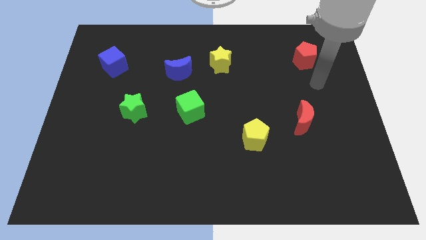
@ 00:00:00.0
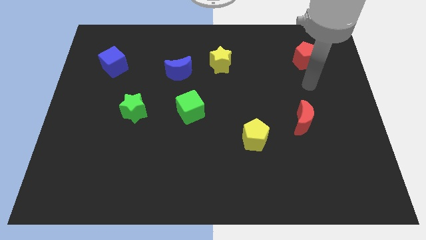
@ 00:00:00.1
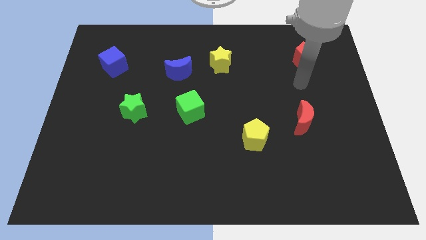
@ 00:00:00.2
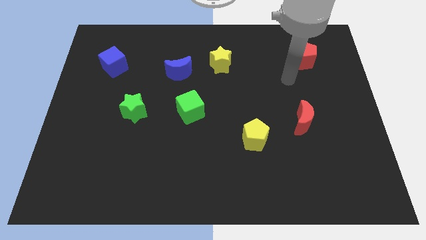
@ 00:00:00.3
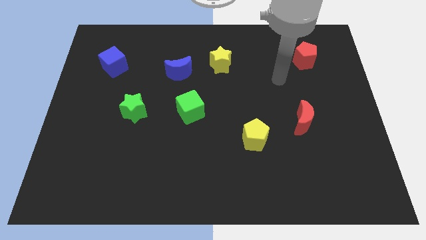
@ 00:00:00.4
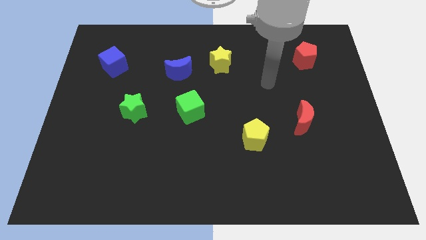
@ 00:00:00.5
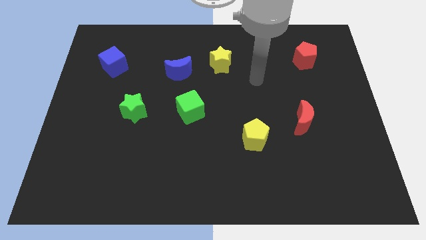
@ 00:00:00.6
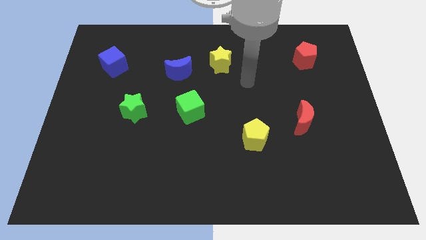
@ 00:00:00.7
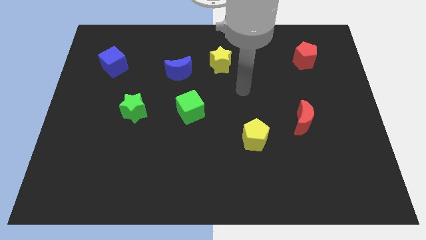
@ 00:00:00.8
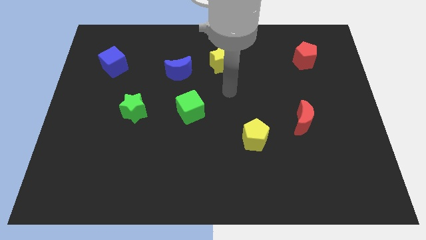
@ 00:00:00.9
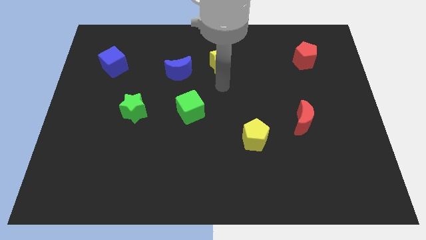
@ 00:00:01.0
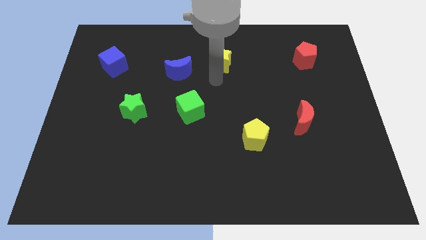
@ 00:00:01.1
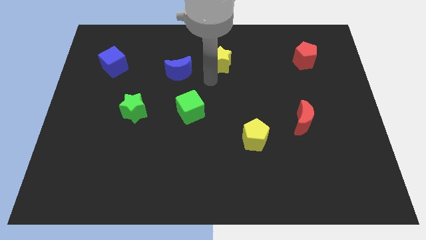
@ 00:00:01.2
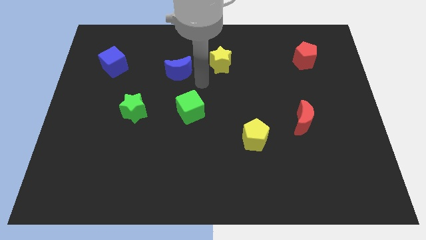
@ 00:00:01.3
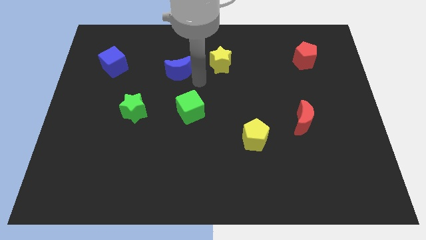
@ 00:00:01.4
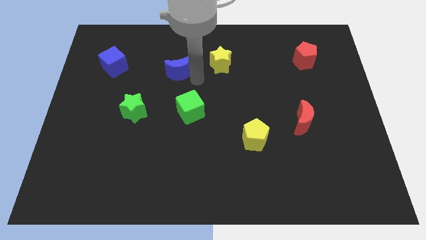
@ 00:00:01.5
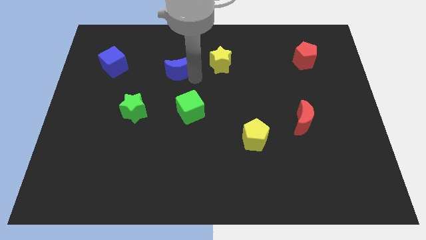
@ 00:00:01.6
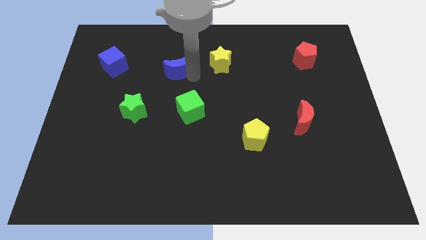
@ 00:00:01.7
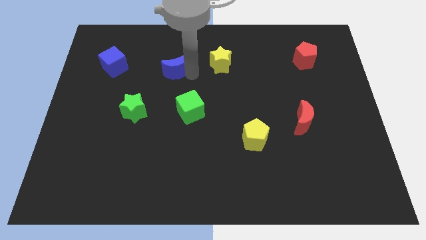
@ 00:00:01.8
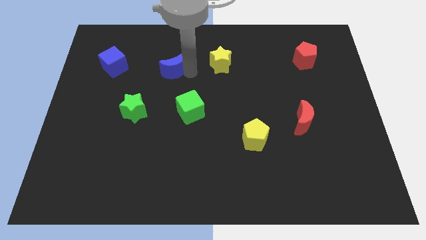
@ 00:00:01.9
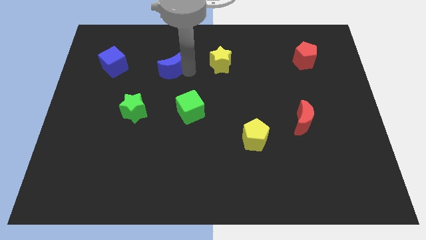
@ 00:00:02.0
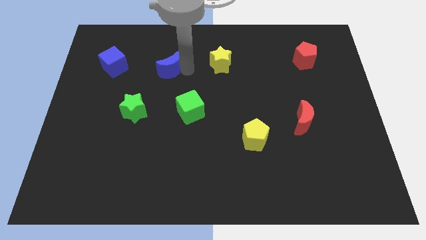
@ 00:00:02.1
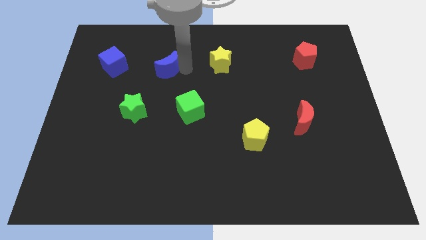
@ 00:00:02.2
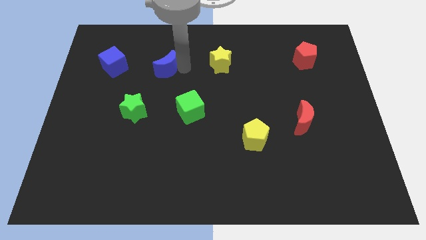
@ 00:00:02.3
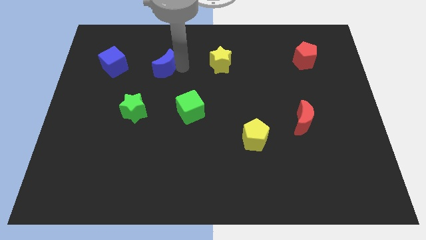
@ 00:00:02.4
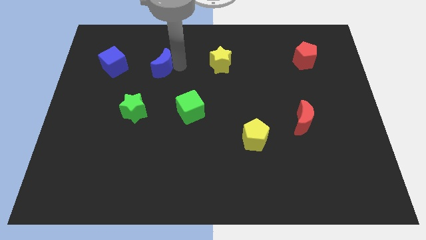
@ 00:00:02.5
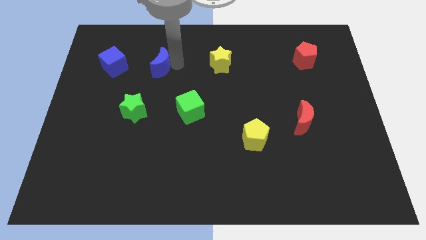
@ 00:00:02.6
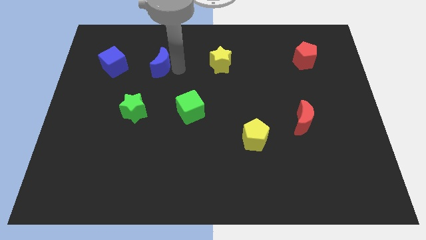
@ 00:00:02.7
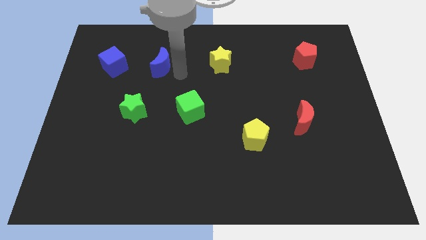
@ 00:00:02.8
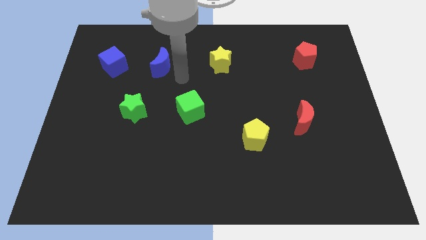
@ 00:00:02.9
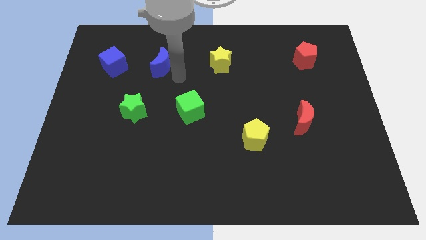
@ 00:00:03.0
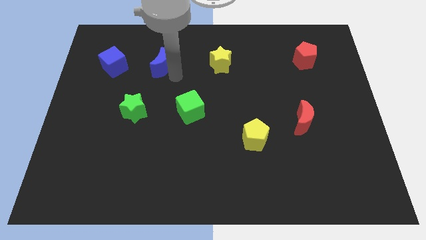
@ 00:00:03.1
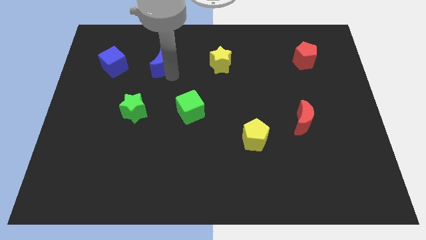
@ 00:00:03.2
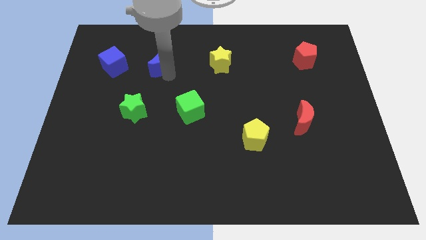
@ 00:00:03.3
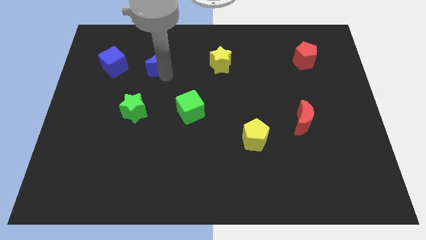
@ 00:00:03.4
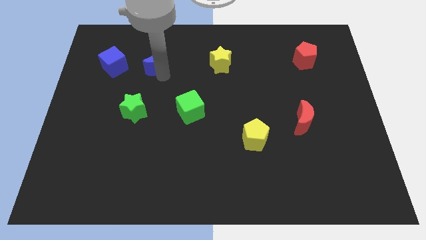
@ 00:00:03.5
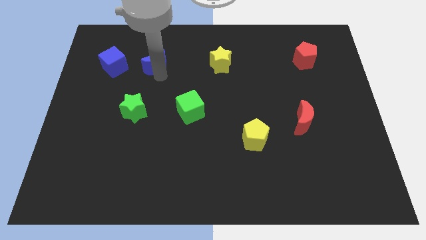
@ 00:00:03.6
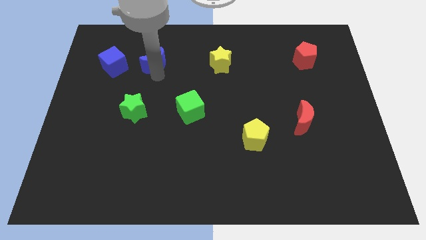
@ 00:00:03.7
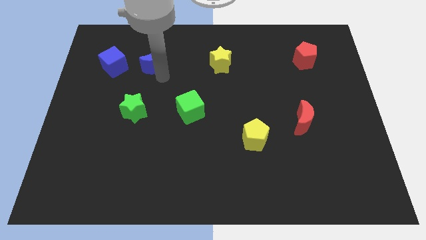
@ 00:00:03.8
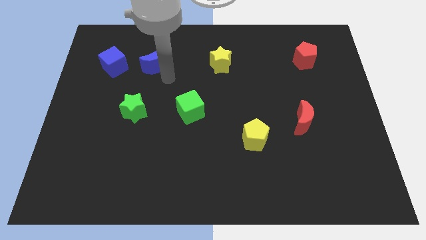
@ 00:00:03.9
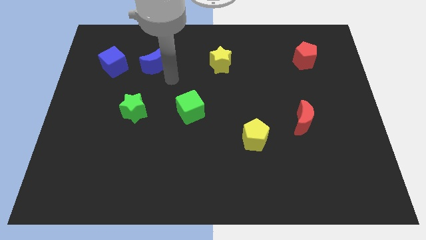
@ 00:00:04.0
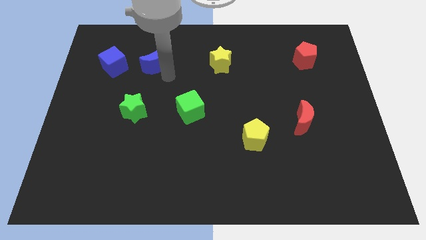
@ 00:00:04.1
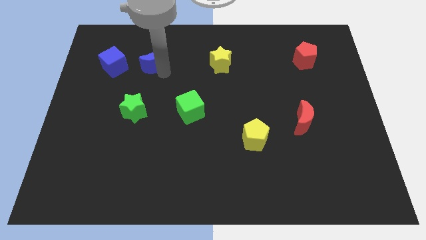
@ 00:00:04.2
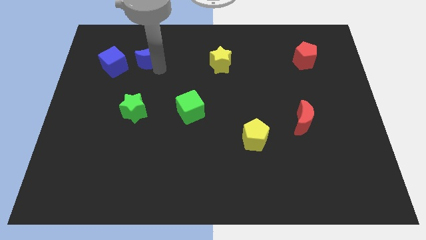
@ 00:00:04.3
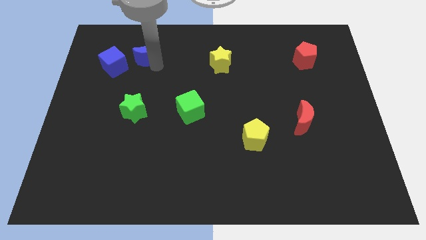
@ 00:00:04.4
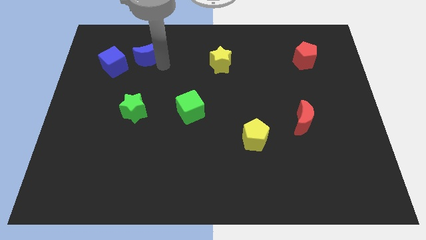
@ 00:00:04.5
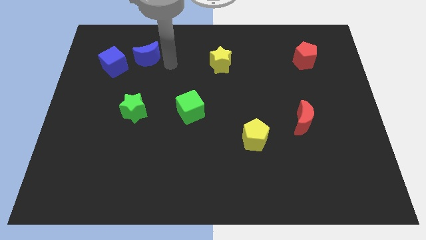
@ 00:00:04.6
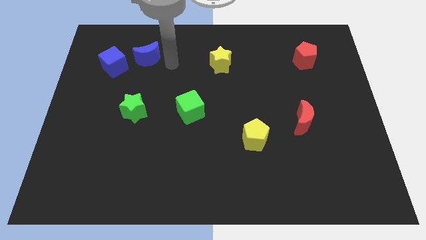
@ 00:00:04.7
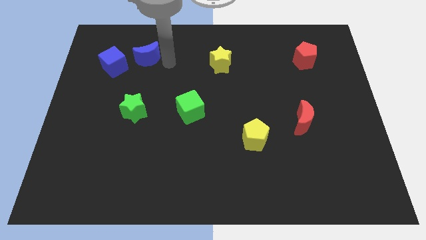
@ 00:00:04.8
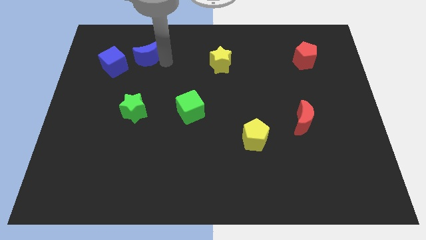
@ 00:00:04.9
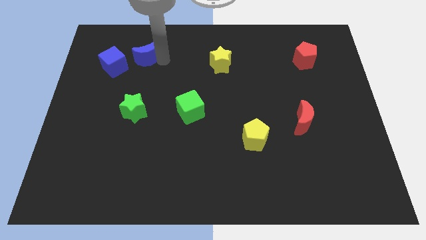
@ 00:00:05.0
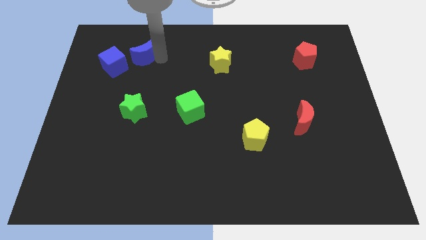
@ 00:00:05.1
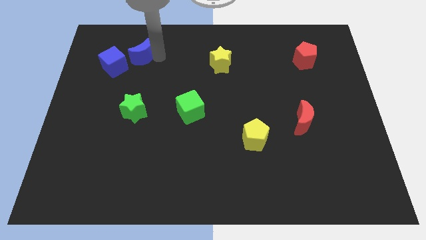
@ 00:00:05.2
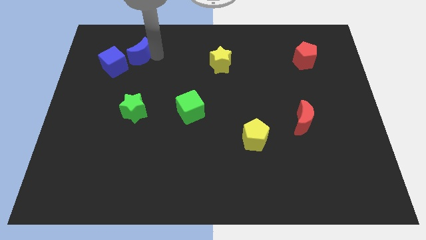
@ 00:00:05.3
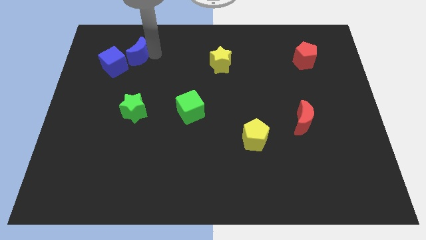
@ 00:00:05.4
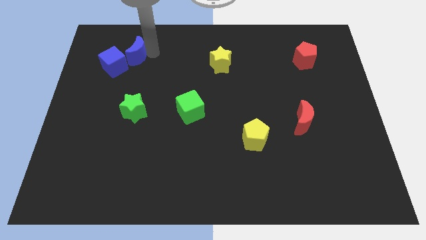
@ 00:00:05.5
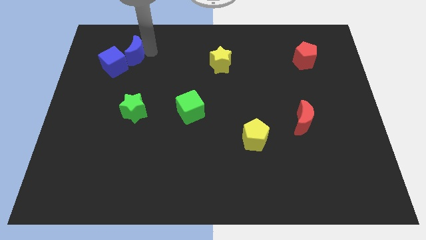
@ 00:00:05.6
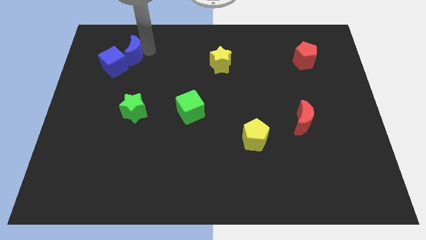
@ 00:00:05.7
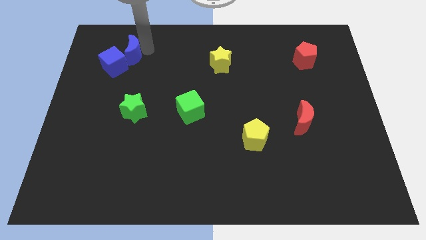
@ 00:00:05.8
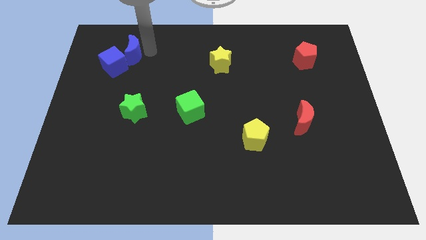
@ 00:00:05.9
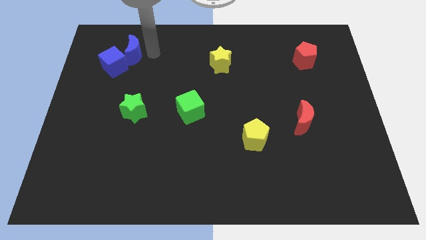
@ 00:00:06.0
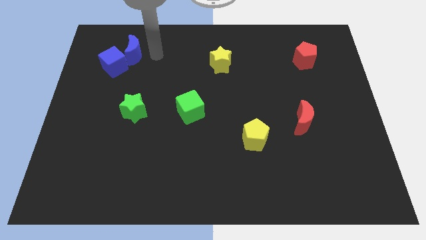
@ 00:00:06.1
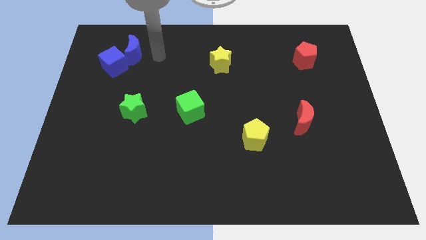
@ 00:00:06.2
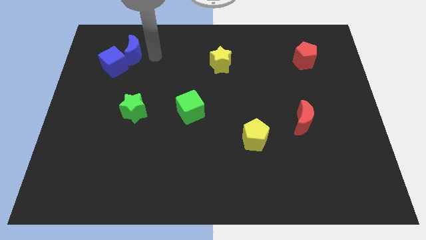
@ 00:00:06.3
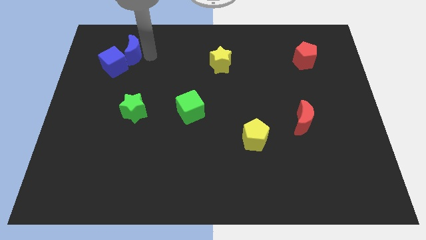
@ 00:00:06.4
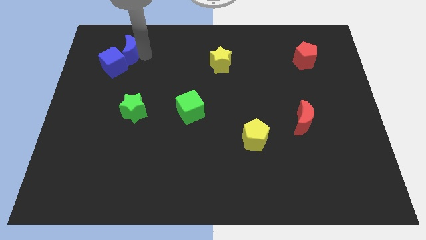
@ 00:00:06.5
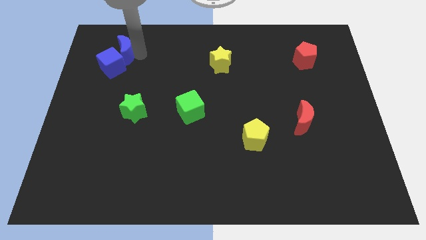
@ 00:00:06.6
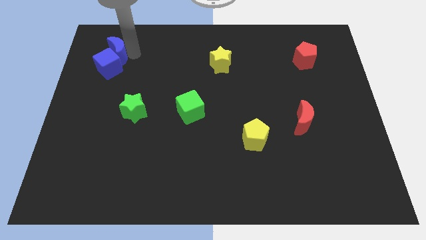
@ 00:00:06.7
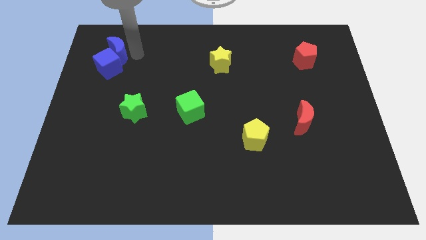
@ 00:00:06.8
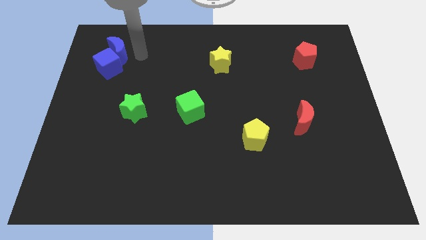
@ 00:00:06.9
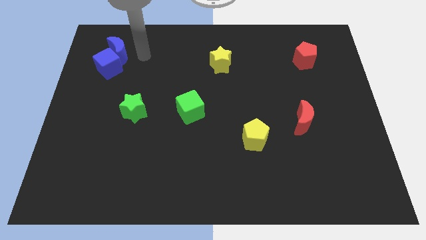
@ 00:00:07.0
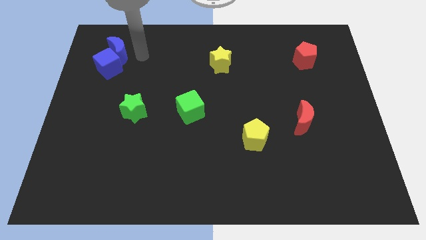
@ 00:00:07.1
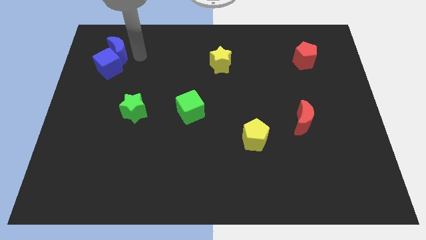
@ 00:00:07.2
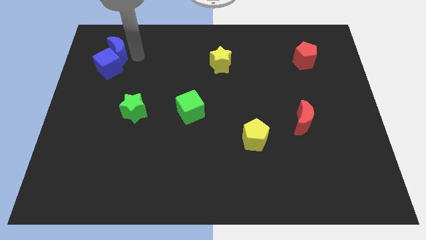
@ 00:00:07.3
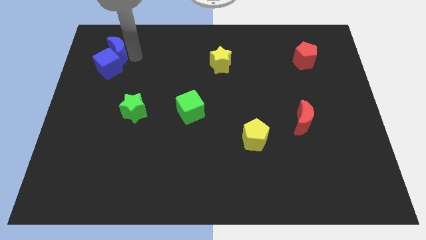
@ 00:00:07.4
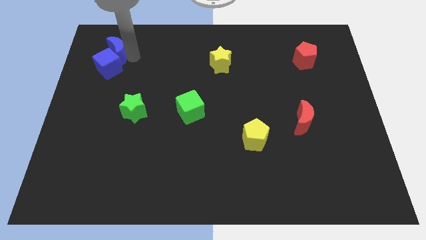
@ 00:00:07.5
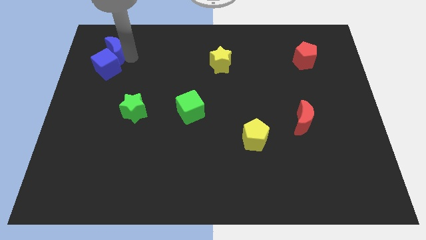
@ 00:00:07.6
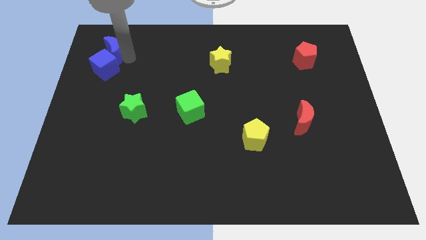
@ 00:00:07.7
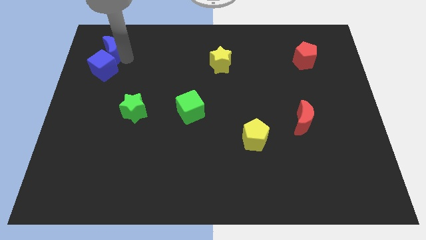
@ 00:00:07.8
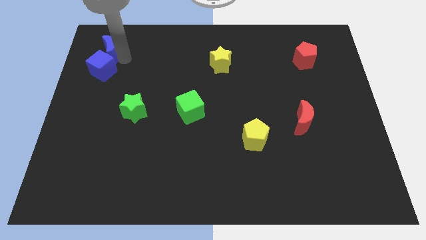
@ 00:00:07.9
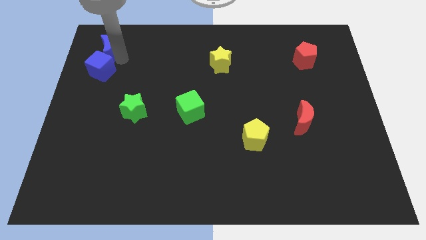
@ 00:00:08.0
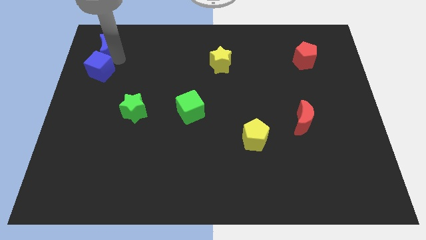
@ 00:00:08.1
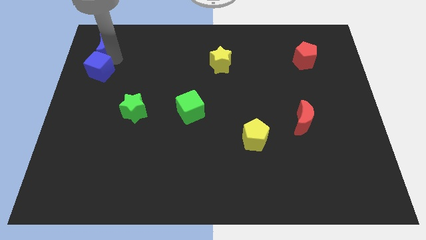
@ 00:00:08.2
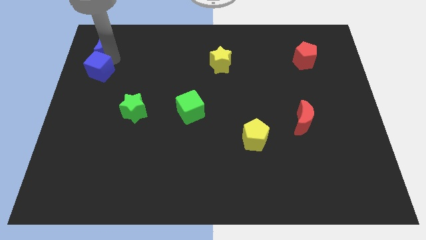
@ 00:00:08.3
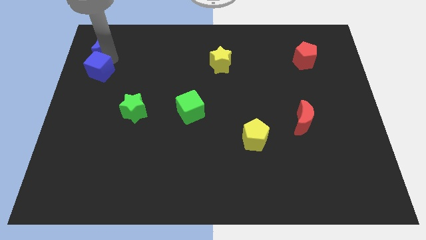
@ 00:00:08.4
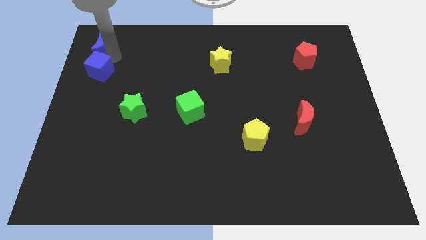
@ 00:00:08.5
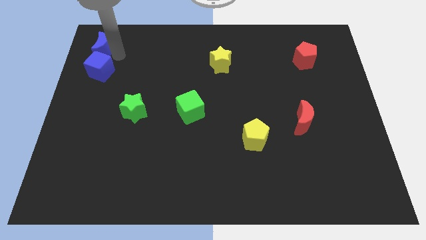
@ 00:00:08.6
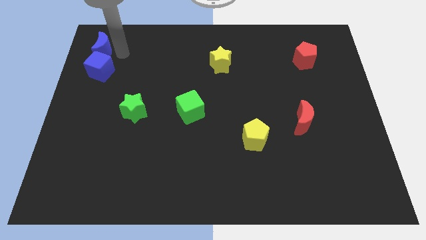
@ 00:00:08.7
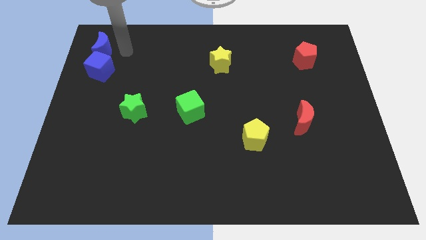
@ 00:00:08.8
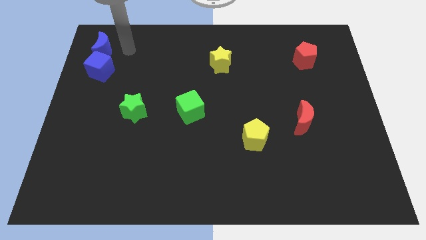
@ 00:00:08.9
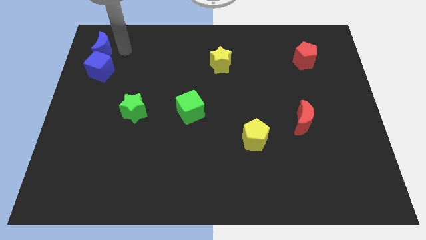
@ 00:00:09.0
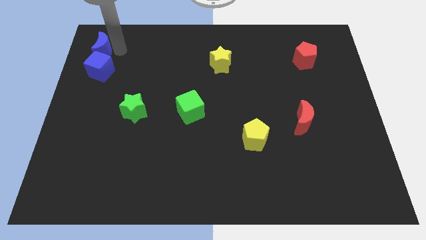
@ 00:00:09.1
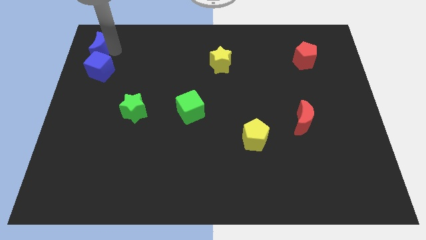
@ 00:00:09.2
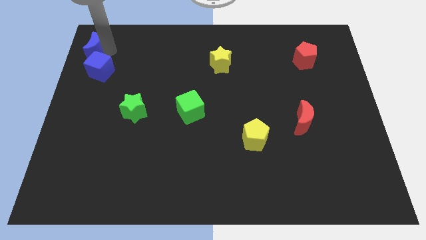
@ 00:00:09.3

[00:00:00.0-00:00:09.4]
put the blue moon to the top left of the board
